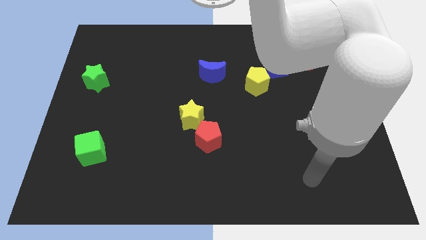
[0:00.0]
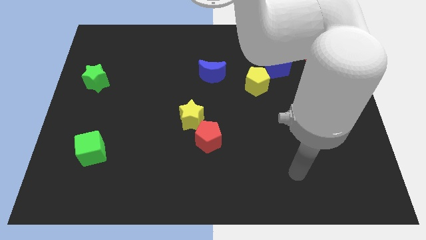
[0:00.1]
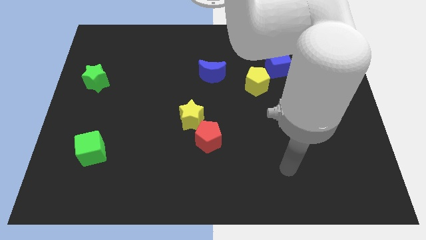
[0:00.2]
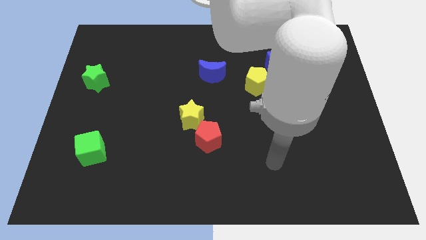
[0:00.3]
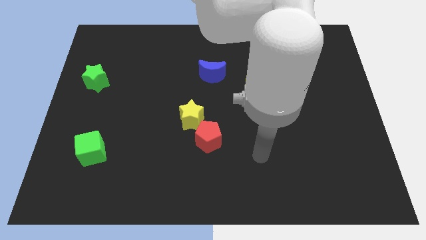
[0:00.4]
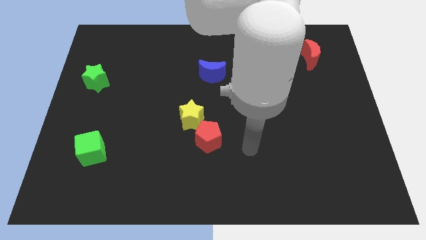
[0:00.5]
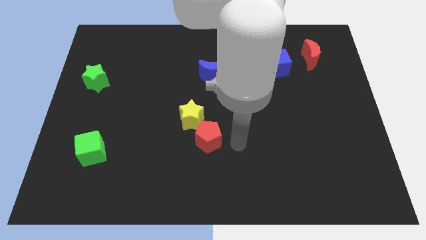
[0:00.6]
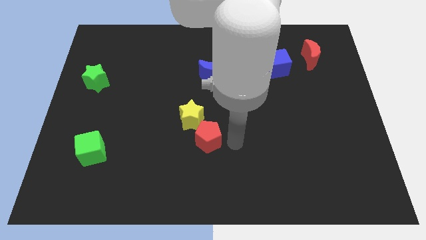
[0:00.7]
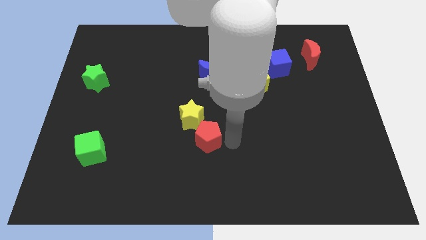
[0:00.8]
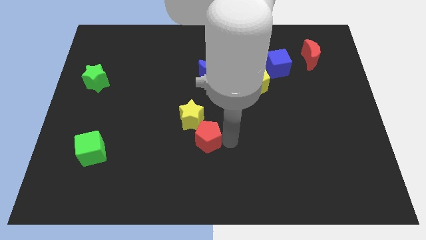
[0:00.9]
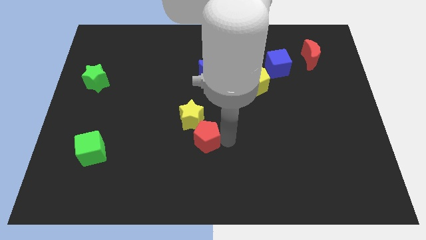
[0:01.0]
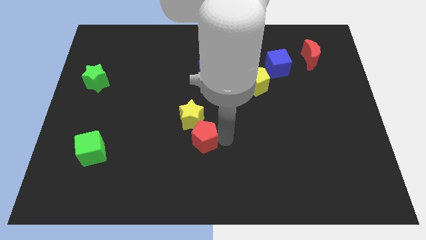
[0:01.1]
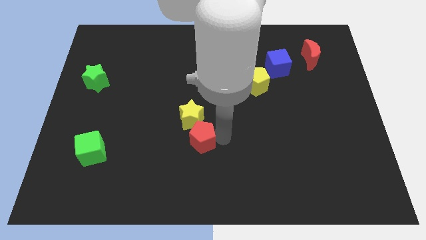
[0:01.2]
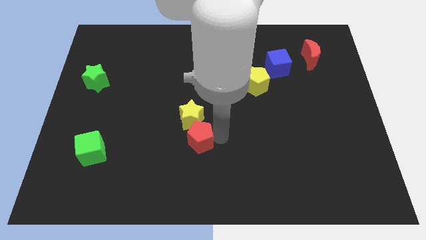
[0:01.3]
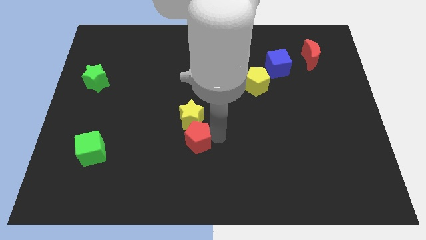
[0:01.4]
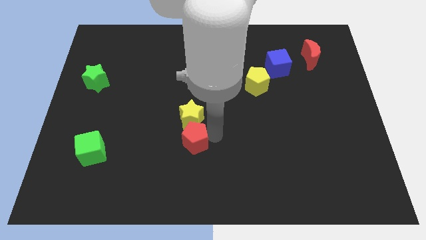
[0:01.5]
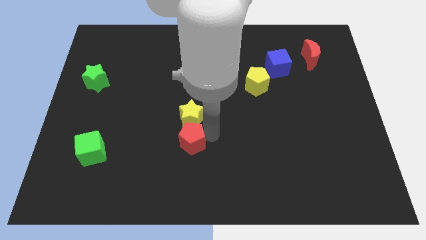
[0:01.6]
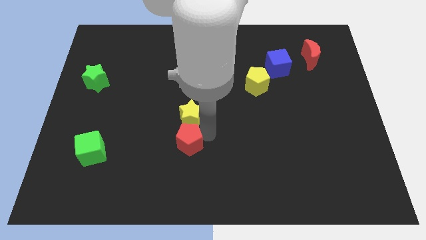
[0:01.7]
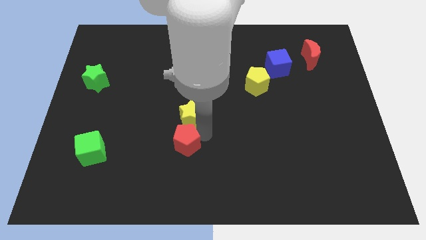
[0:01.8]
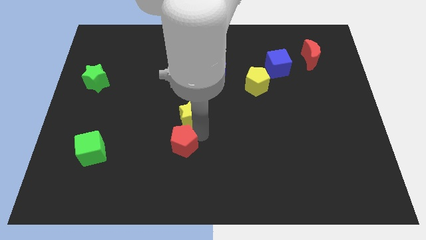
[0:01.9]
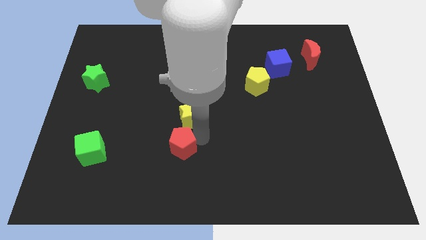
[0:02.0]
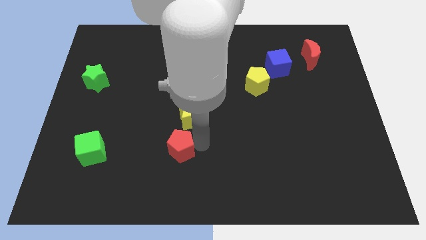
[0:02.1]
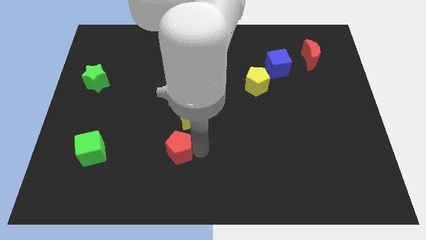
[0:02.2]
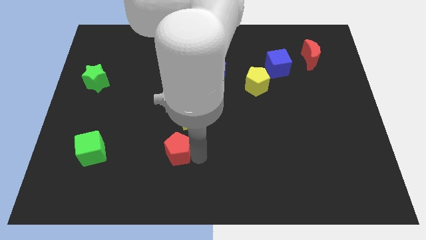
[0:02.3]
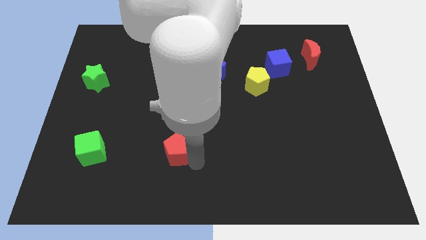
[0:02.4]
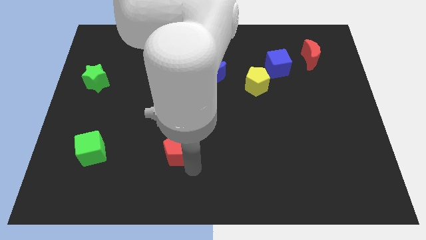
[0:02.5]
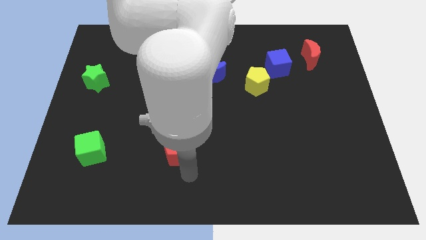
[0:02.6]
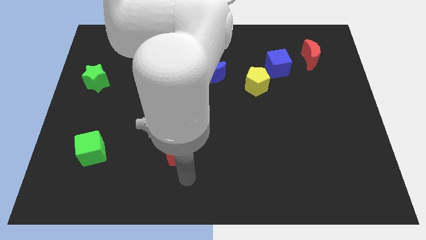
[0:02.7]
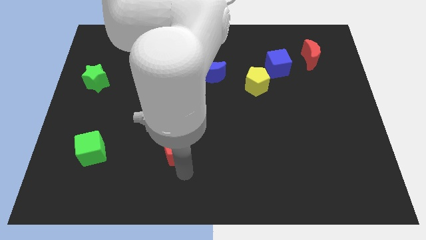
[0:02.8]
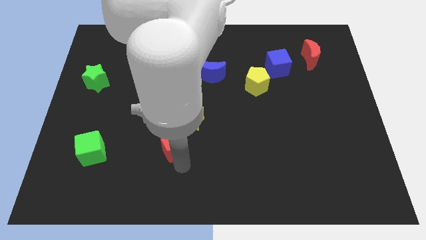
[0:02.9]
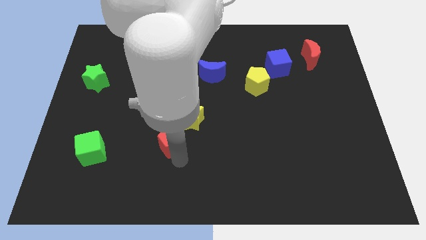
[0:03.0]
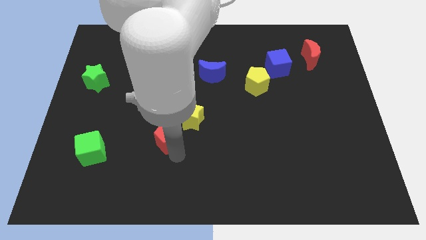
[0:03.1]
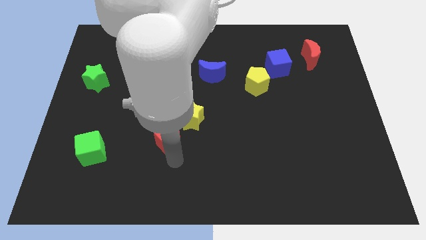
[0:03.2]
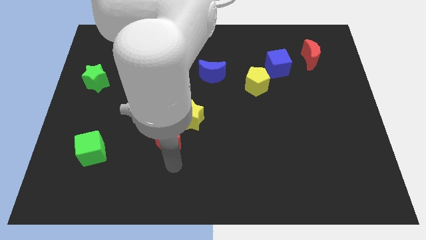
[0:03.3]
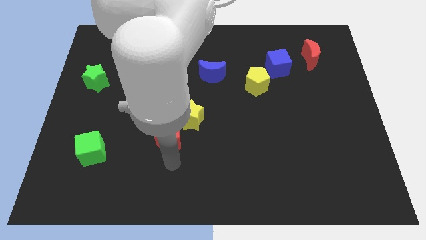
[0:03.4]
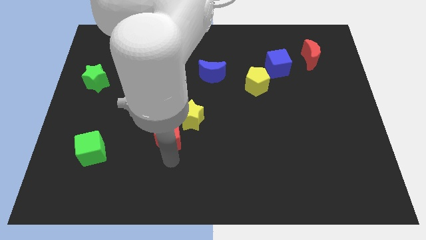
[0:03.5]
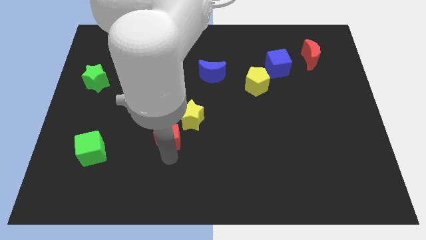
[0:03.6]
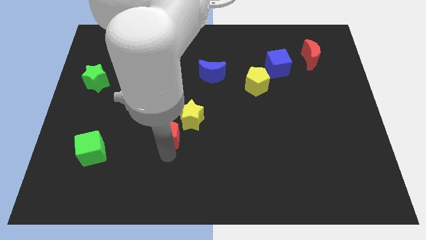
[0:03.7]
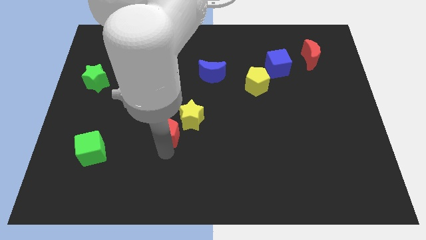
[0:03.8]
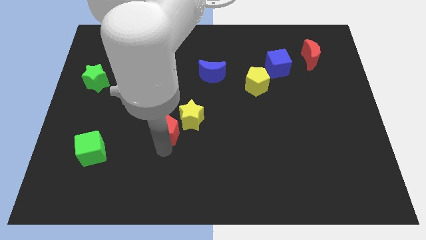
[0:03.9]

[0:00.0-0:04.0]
slide the red pentagon upwards and then left a little

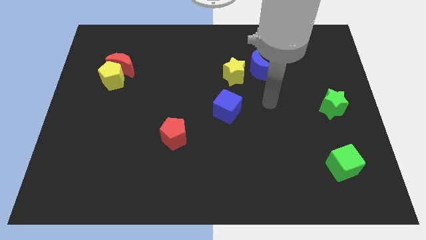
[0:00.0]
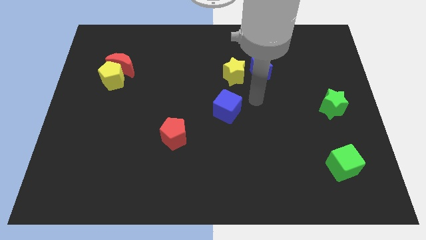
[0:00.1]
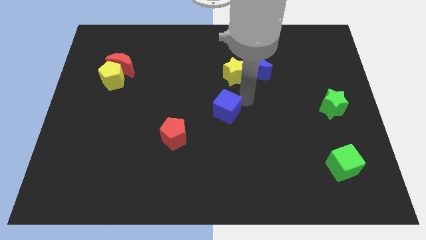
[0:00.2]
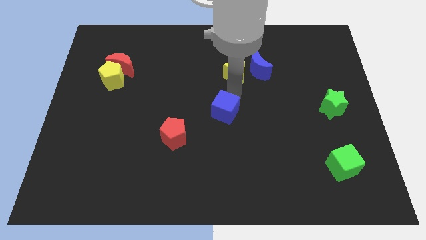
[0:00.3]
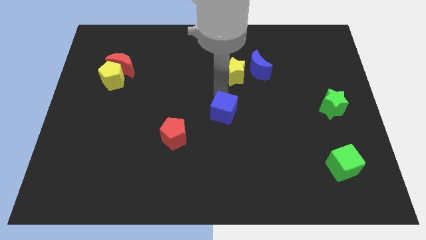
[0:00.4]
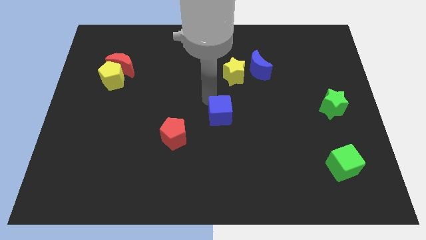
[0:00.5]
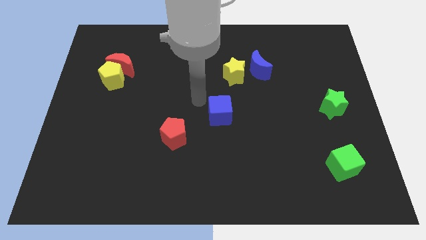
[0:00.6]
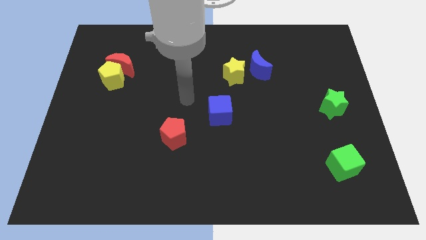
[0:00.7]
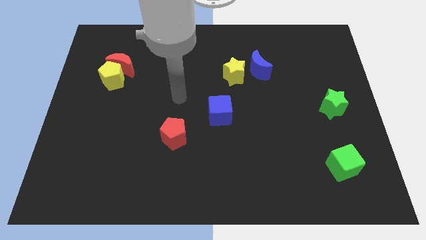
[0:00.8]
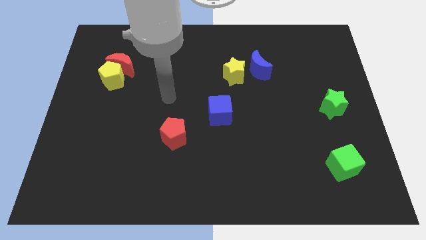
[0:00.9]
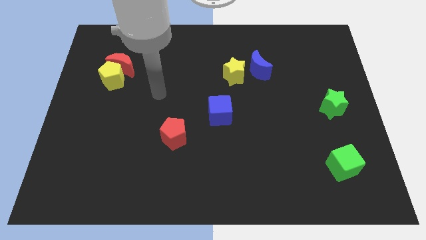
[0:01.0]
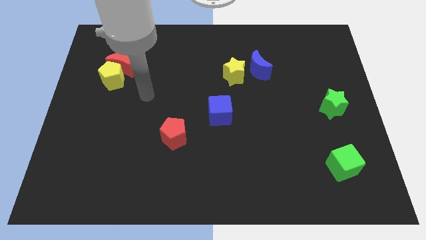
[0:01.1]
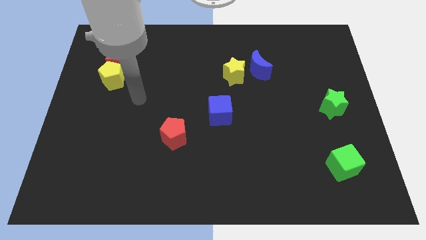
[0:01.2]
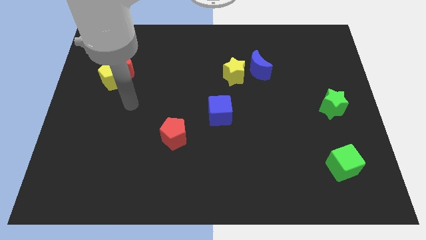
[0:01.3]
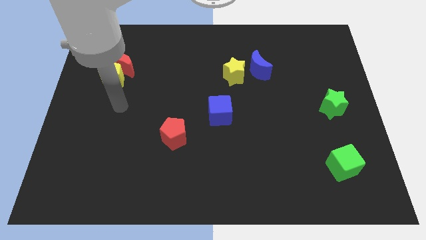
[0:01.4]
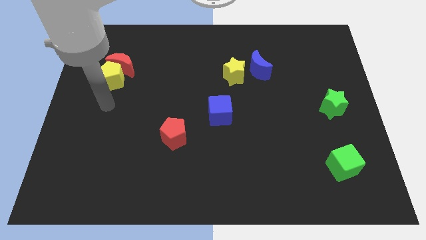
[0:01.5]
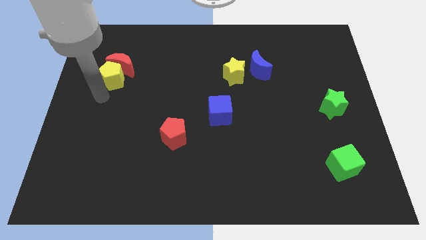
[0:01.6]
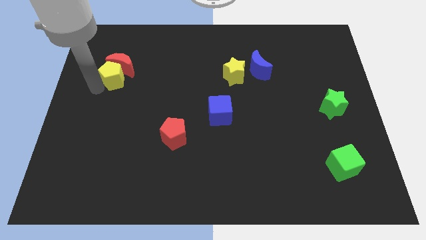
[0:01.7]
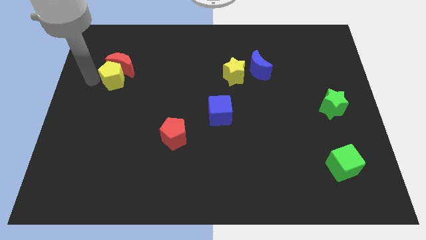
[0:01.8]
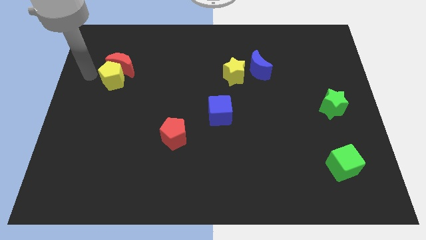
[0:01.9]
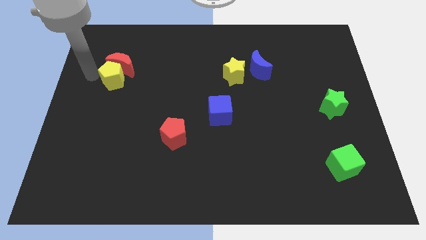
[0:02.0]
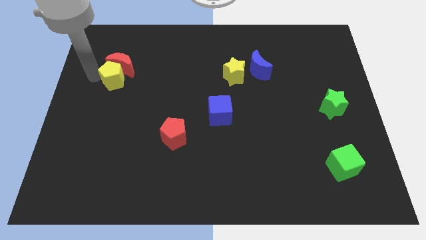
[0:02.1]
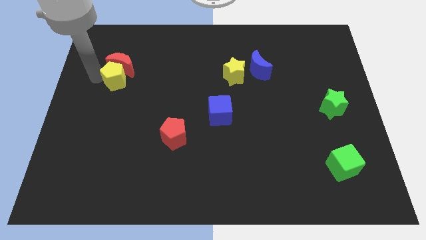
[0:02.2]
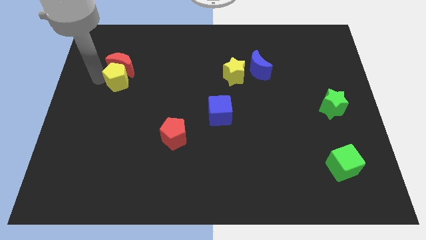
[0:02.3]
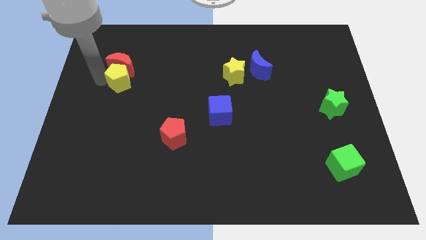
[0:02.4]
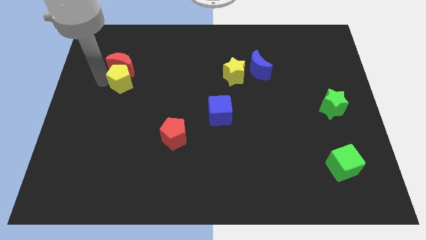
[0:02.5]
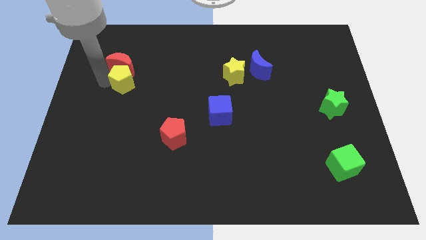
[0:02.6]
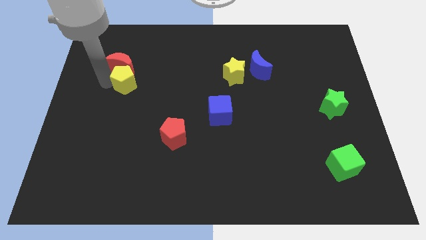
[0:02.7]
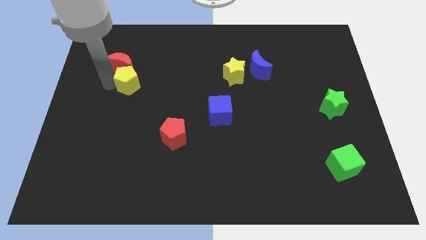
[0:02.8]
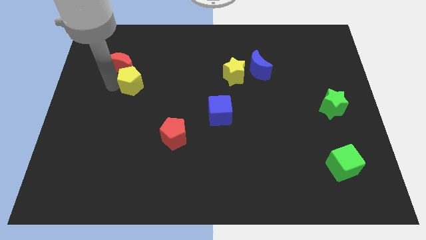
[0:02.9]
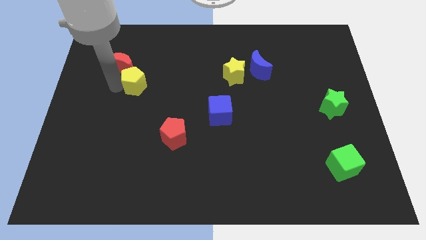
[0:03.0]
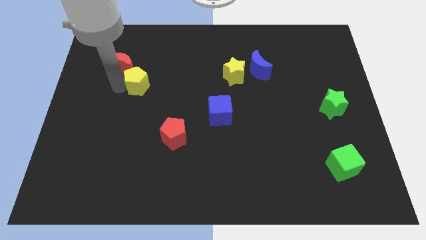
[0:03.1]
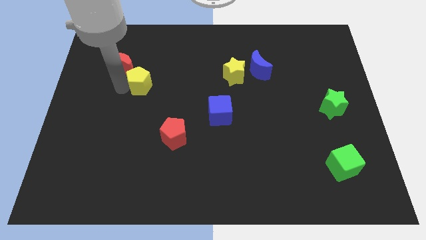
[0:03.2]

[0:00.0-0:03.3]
slide the yellow pentagon slightly right

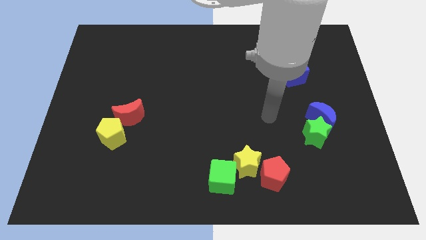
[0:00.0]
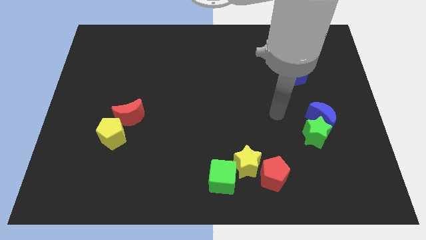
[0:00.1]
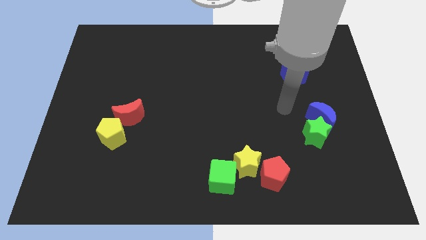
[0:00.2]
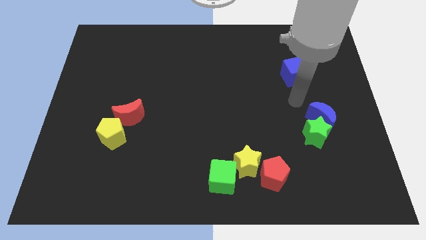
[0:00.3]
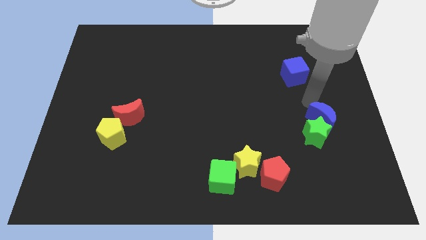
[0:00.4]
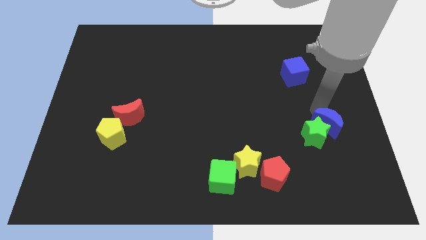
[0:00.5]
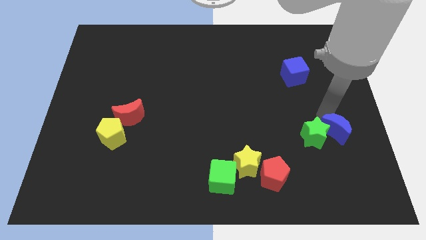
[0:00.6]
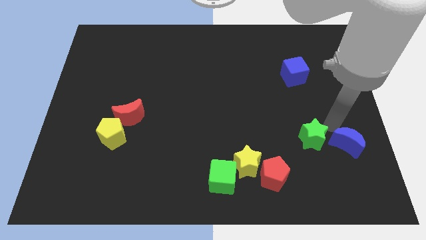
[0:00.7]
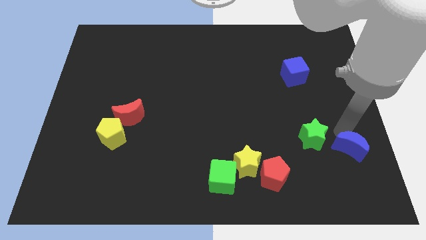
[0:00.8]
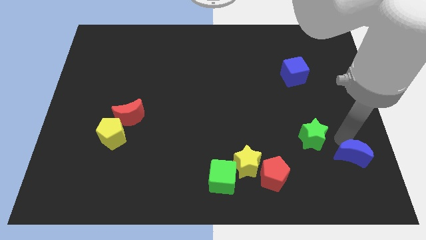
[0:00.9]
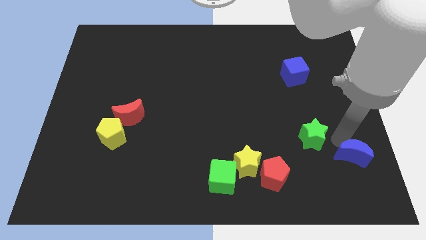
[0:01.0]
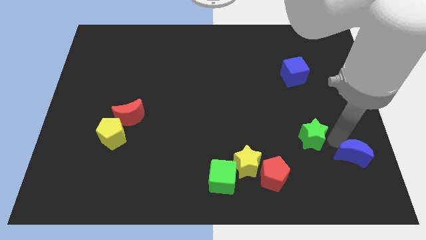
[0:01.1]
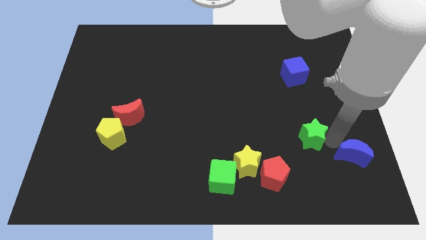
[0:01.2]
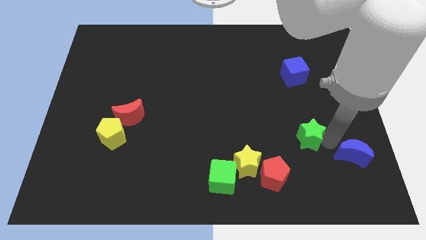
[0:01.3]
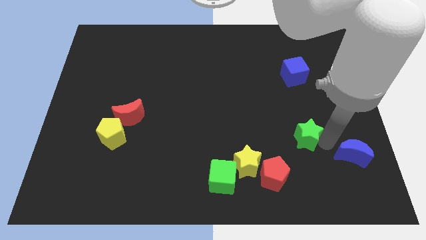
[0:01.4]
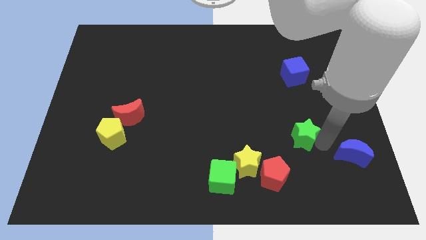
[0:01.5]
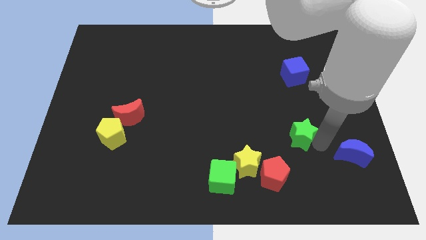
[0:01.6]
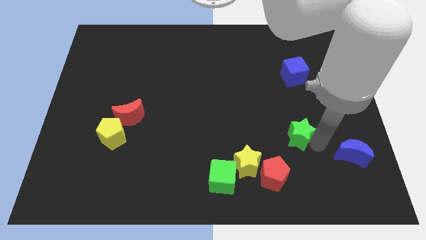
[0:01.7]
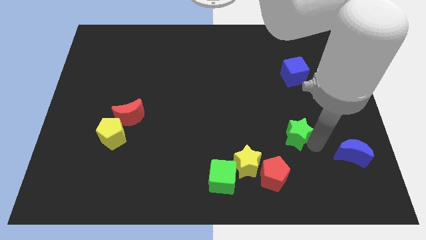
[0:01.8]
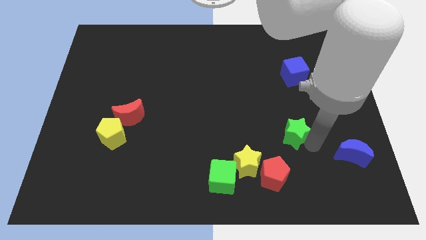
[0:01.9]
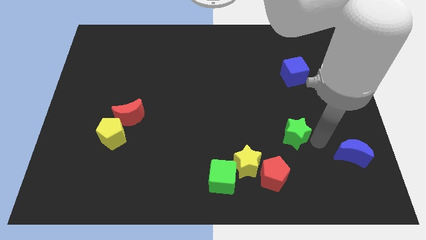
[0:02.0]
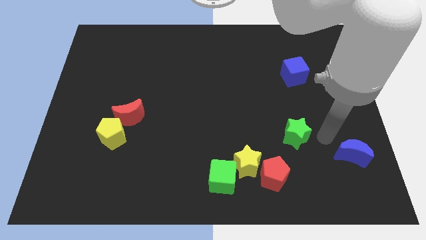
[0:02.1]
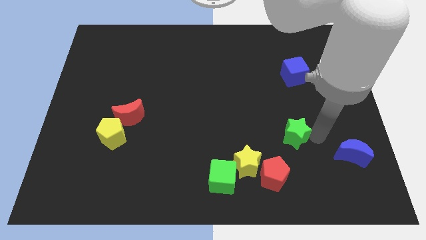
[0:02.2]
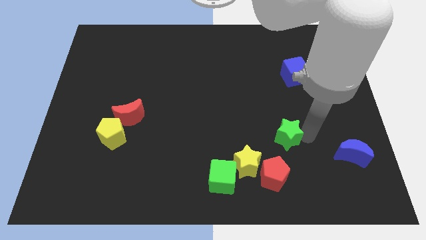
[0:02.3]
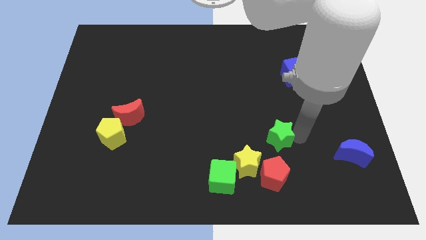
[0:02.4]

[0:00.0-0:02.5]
move the green star left slightly
